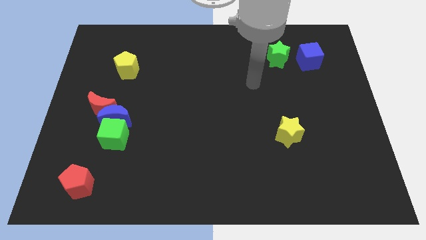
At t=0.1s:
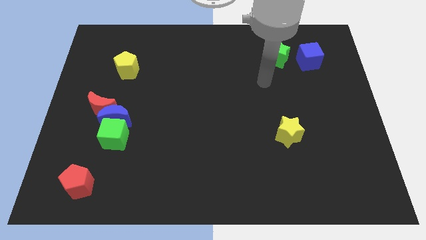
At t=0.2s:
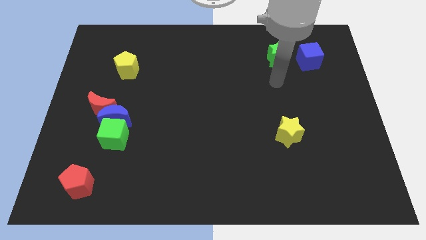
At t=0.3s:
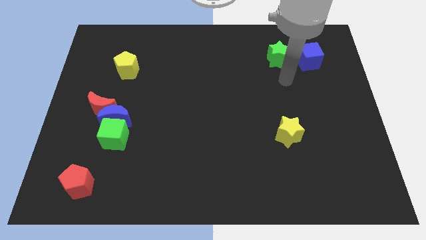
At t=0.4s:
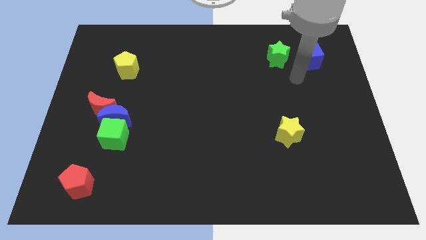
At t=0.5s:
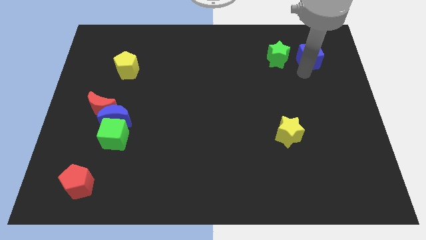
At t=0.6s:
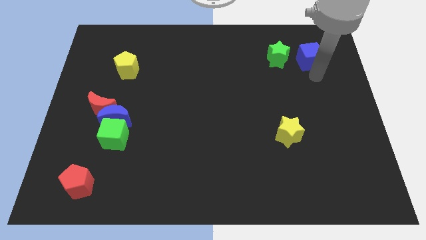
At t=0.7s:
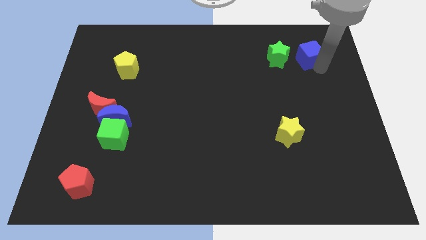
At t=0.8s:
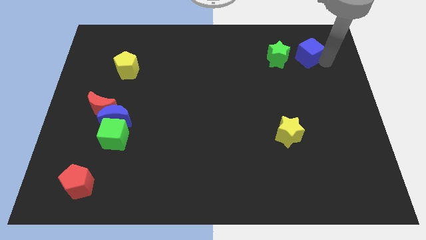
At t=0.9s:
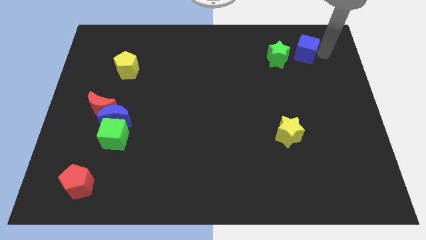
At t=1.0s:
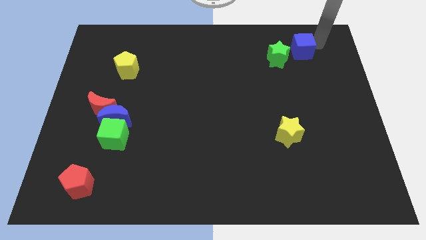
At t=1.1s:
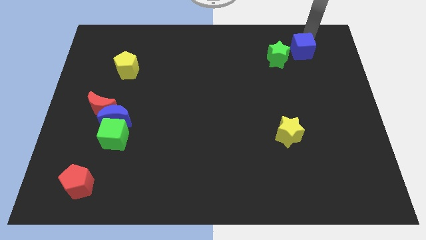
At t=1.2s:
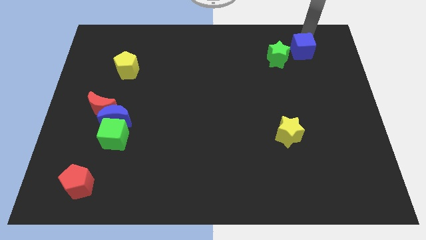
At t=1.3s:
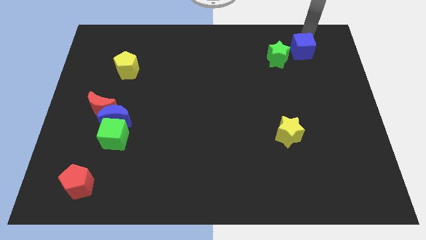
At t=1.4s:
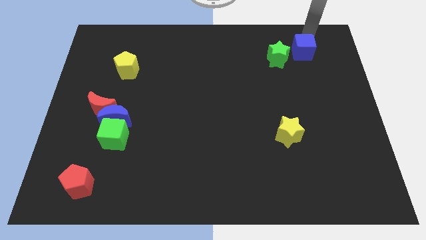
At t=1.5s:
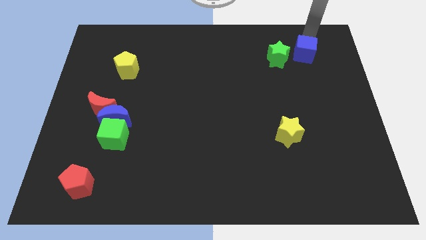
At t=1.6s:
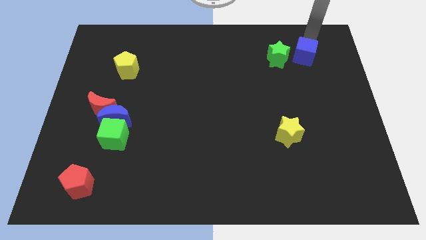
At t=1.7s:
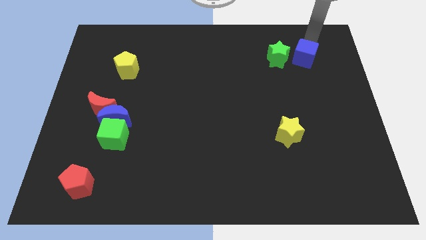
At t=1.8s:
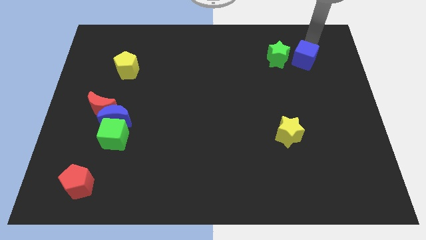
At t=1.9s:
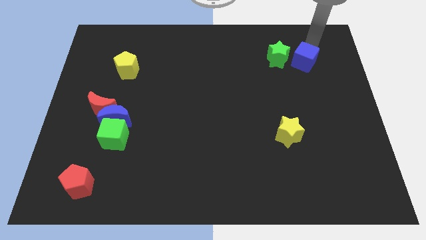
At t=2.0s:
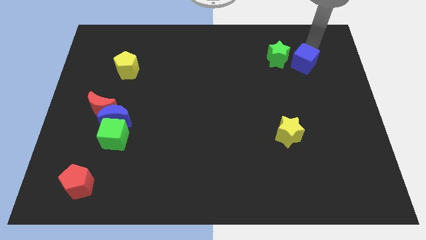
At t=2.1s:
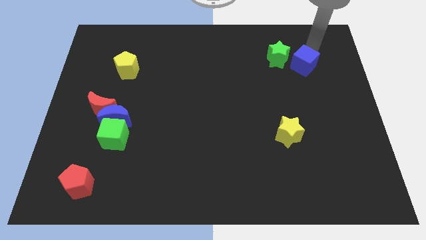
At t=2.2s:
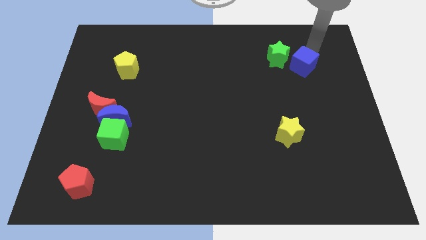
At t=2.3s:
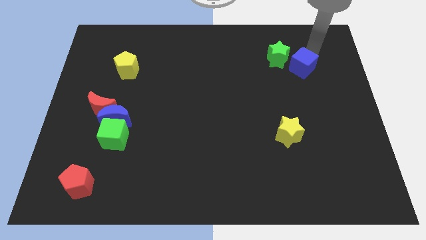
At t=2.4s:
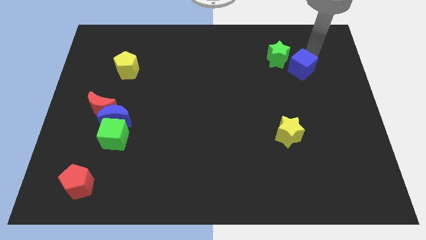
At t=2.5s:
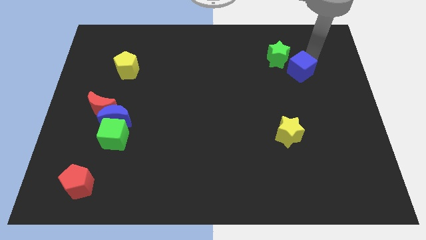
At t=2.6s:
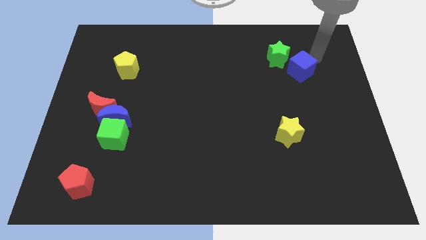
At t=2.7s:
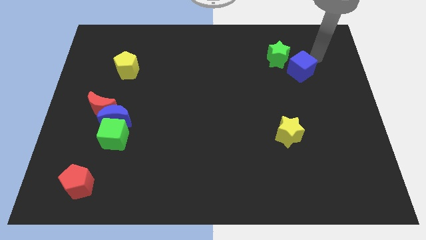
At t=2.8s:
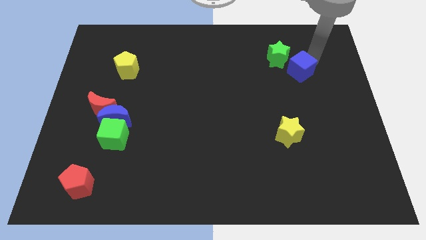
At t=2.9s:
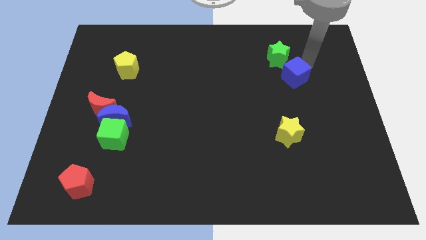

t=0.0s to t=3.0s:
push the blue cube a little bit down and to the left

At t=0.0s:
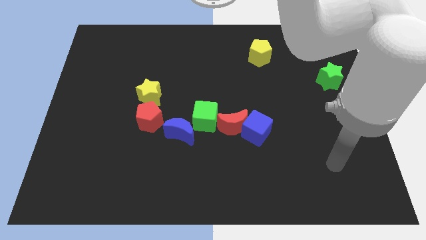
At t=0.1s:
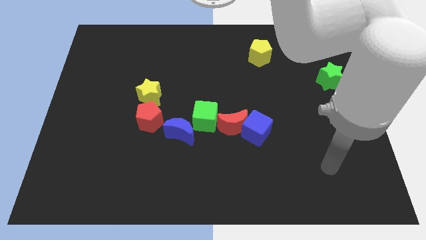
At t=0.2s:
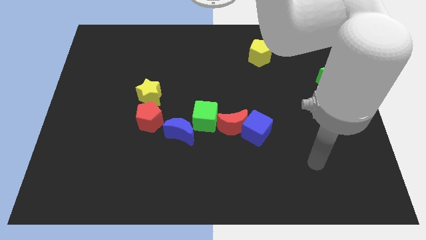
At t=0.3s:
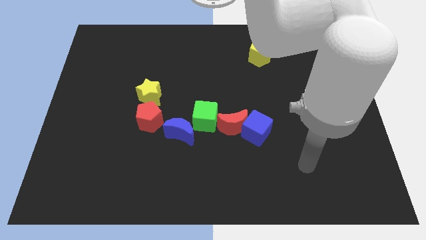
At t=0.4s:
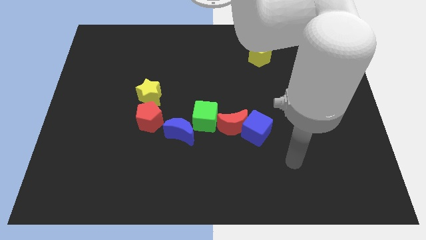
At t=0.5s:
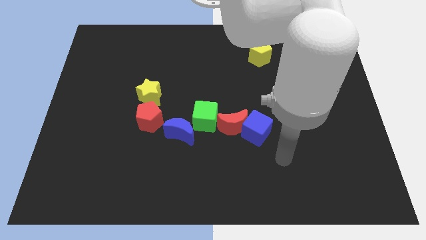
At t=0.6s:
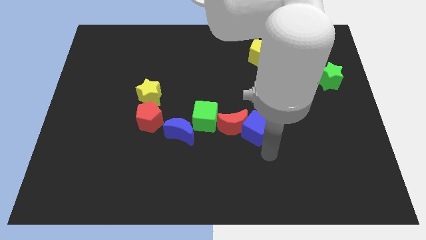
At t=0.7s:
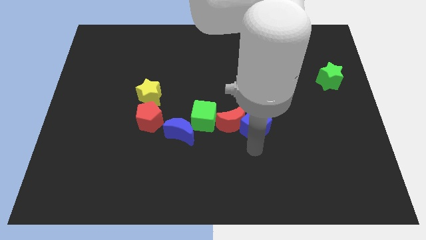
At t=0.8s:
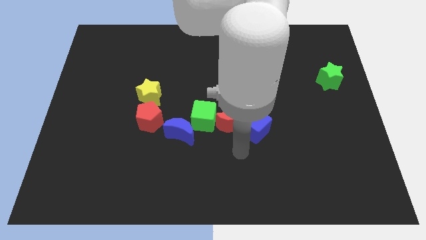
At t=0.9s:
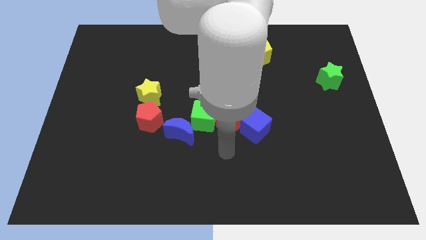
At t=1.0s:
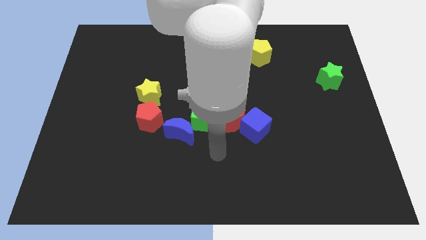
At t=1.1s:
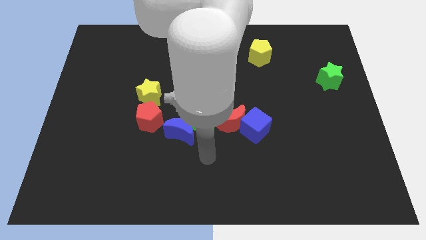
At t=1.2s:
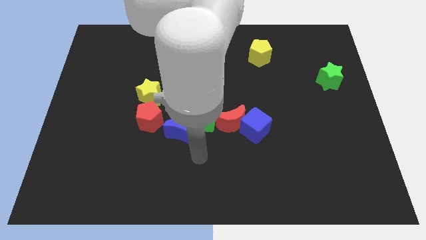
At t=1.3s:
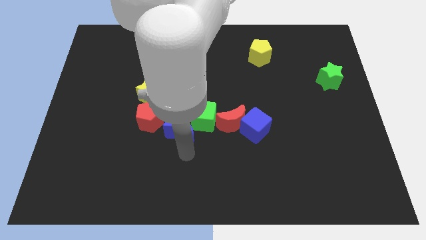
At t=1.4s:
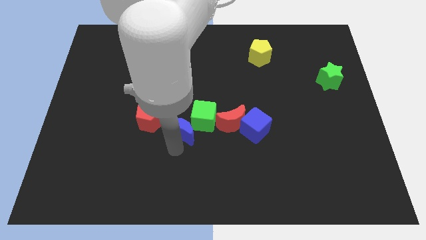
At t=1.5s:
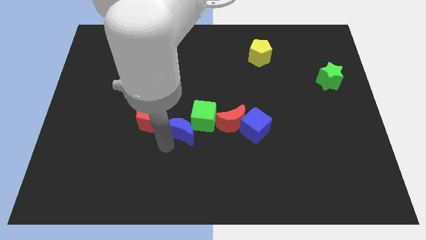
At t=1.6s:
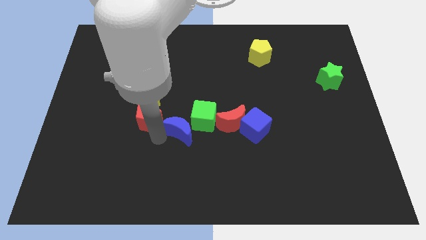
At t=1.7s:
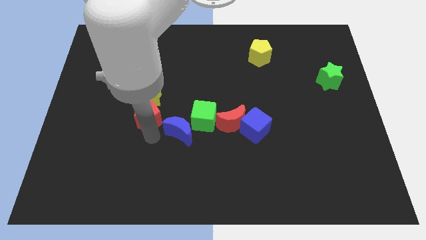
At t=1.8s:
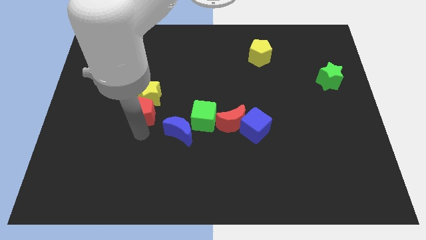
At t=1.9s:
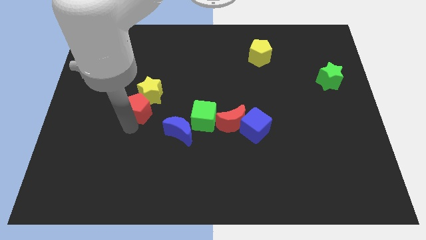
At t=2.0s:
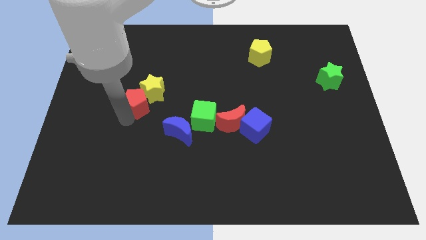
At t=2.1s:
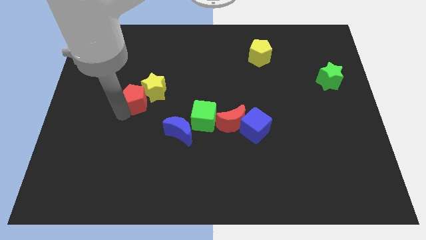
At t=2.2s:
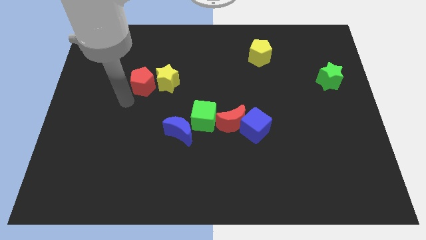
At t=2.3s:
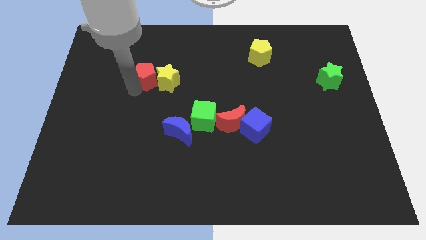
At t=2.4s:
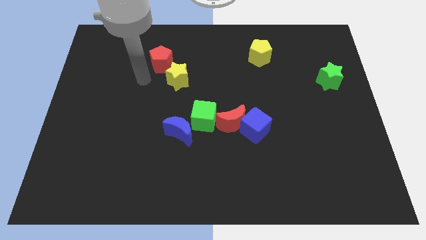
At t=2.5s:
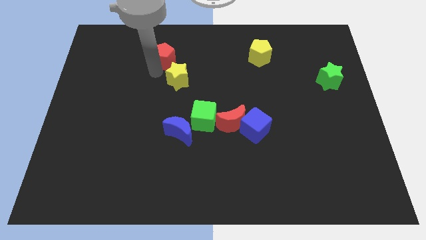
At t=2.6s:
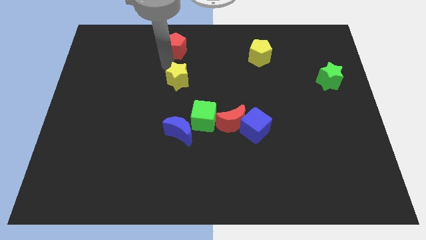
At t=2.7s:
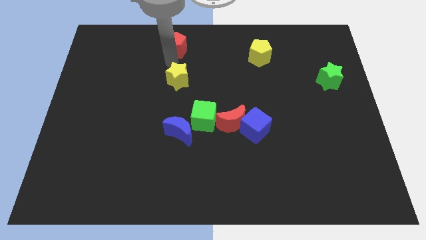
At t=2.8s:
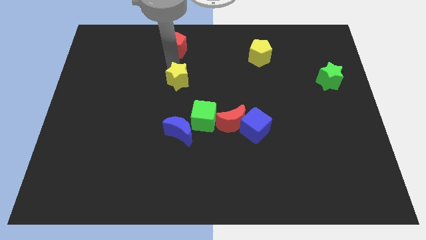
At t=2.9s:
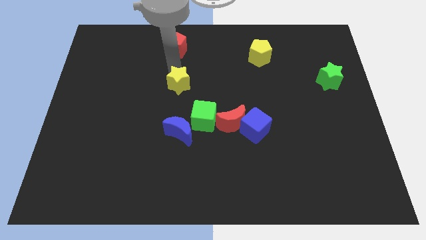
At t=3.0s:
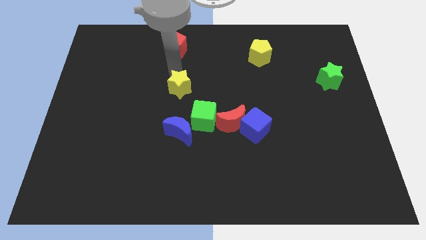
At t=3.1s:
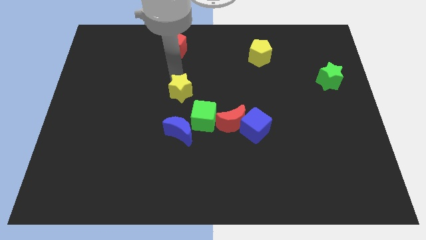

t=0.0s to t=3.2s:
push the yellow star right a bit

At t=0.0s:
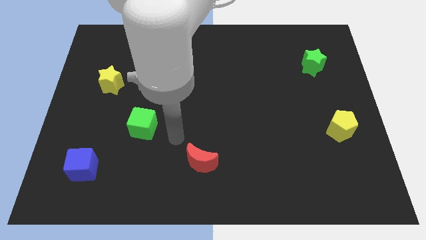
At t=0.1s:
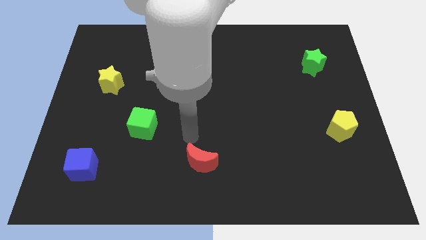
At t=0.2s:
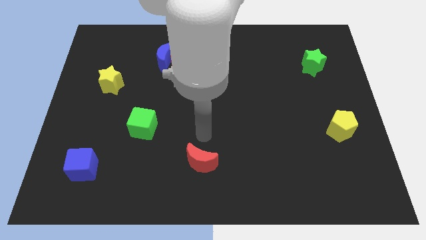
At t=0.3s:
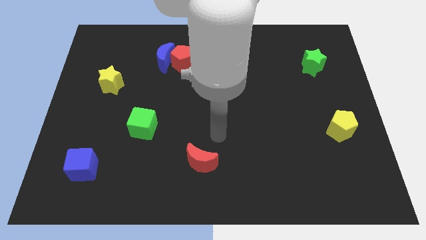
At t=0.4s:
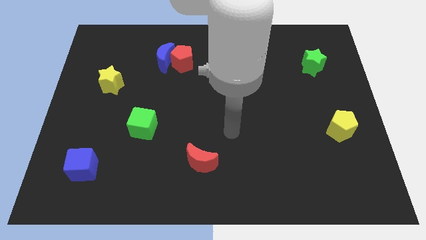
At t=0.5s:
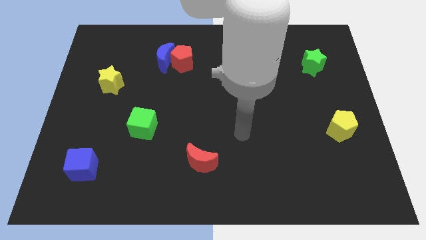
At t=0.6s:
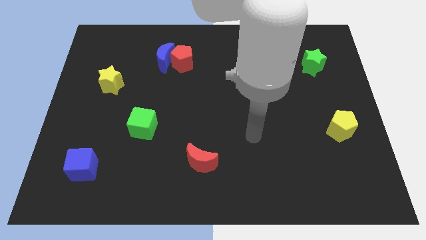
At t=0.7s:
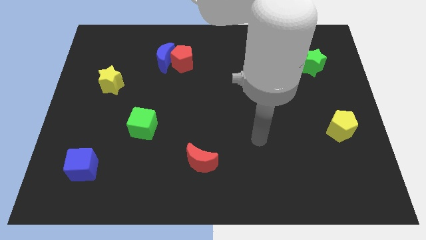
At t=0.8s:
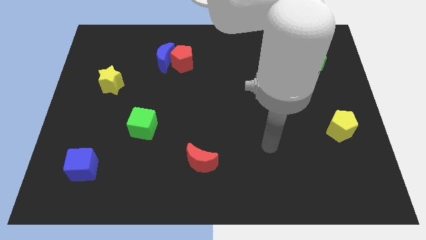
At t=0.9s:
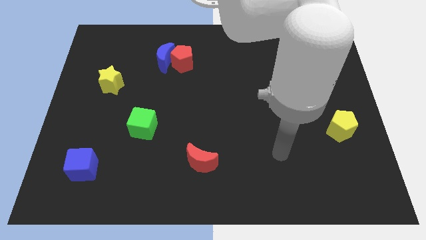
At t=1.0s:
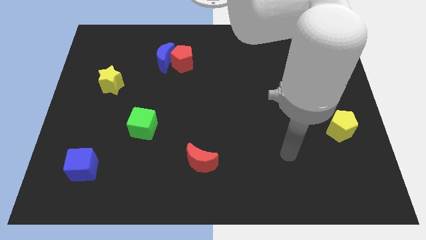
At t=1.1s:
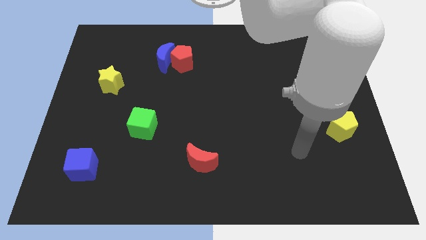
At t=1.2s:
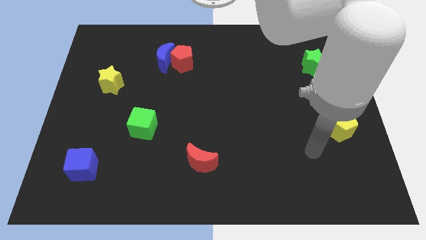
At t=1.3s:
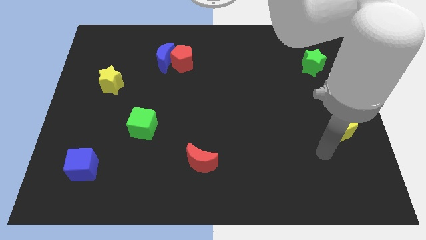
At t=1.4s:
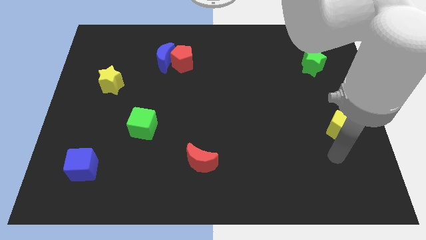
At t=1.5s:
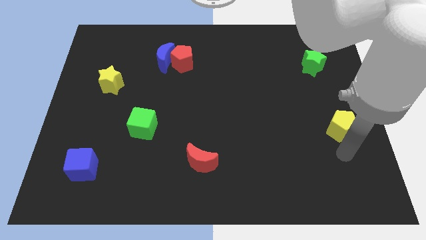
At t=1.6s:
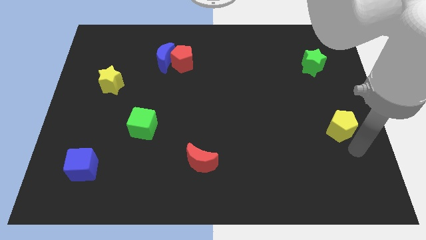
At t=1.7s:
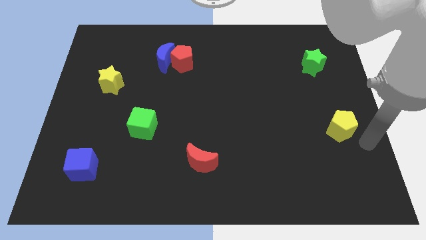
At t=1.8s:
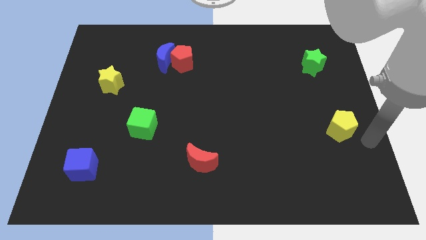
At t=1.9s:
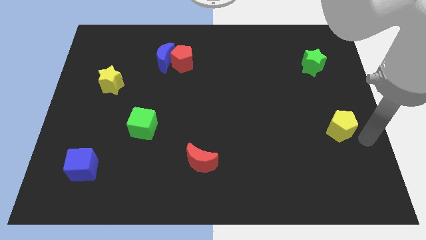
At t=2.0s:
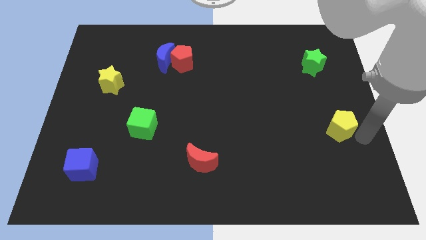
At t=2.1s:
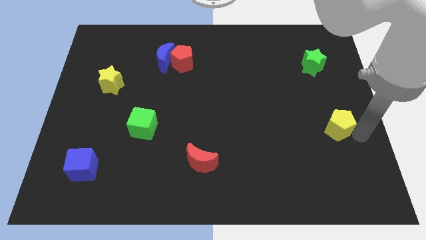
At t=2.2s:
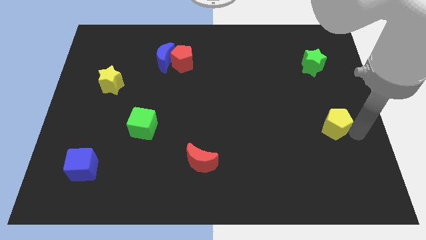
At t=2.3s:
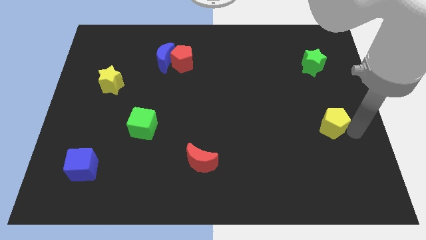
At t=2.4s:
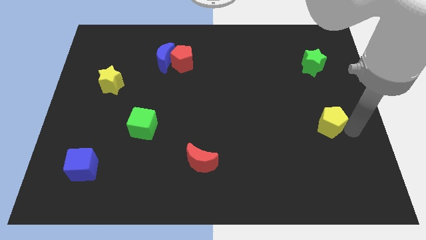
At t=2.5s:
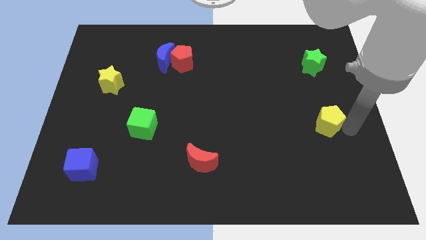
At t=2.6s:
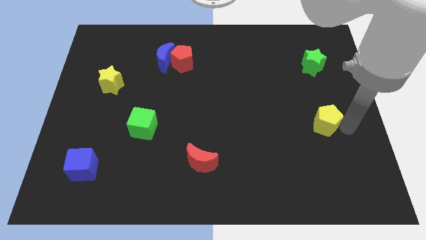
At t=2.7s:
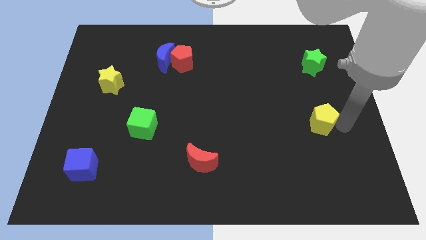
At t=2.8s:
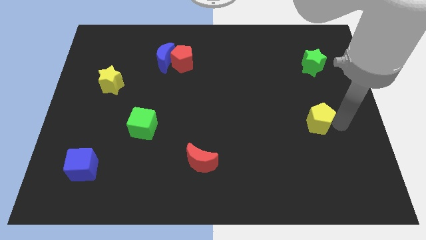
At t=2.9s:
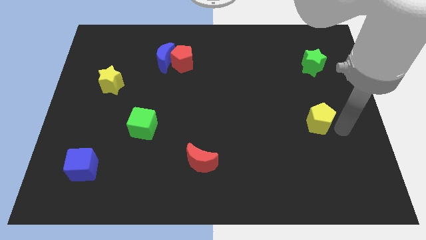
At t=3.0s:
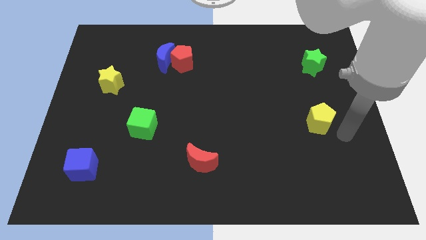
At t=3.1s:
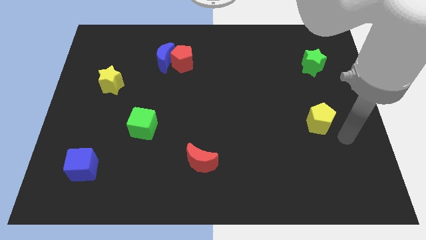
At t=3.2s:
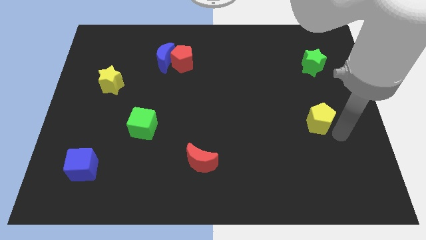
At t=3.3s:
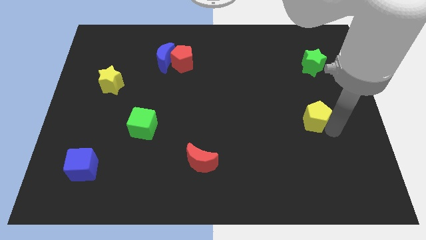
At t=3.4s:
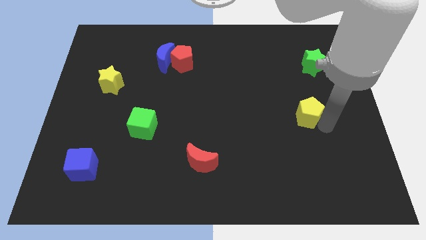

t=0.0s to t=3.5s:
slightly slide the yellow pentagon upwards and then left
